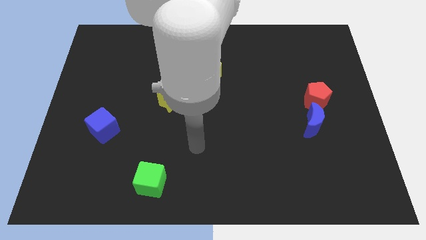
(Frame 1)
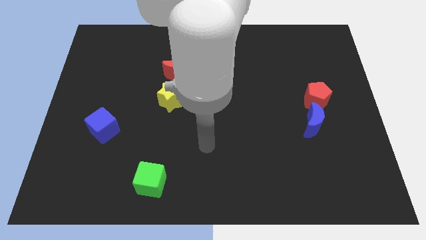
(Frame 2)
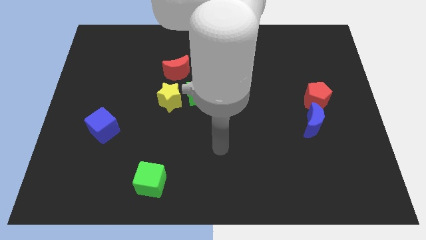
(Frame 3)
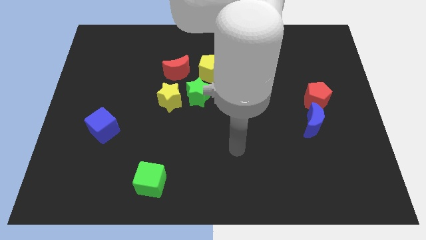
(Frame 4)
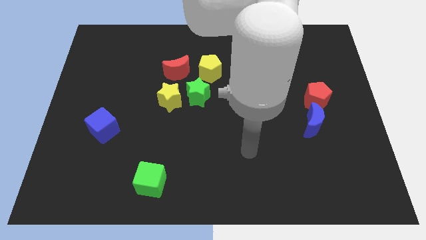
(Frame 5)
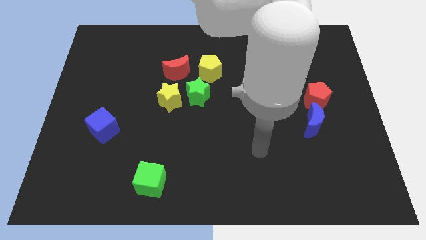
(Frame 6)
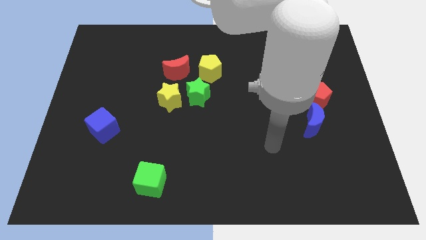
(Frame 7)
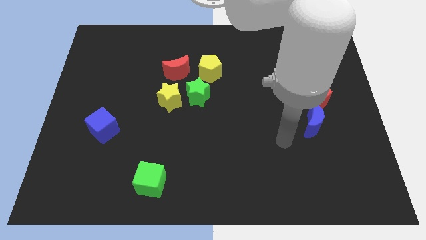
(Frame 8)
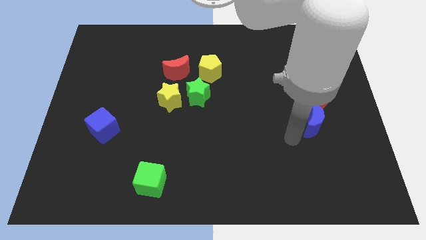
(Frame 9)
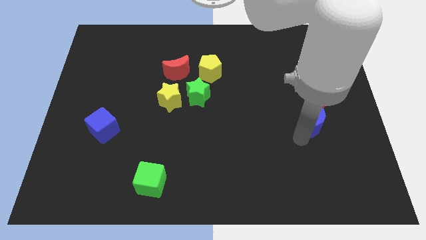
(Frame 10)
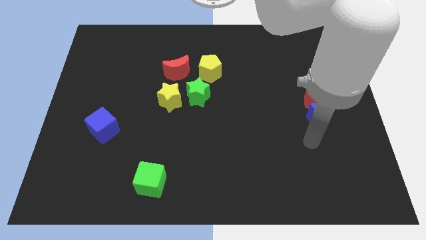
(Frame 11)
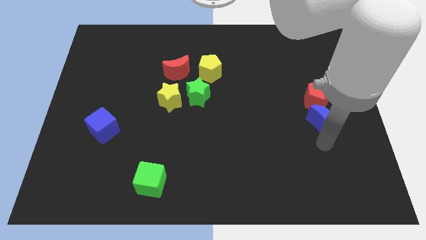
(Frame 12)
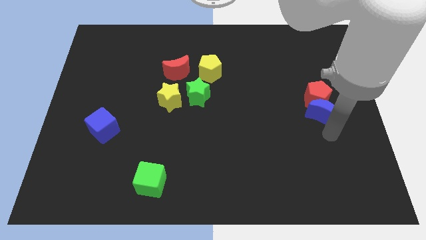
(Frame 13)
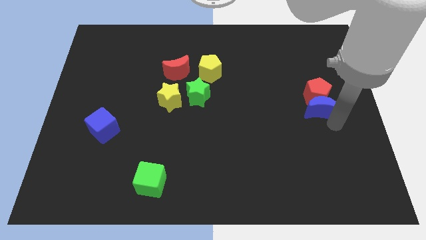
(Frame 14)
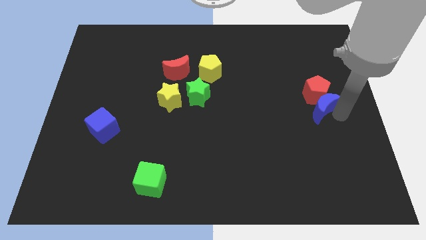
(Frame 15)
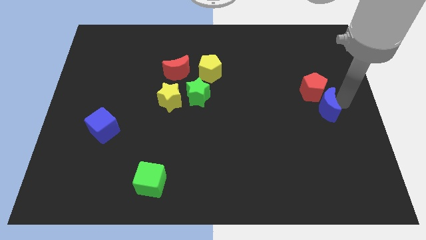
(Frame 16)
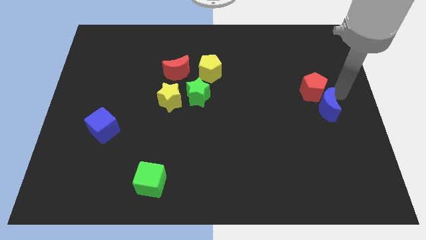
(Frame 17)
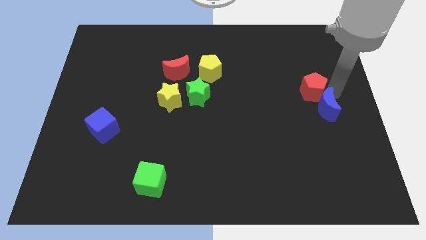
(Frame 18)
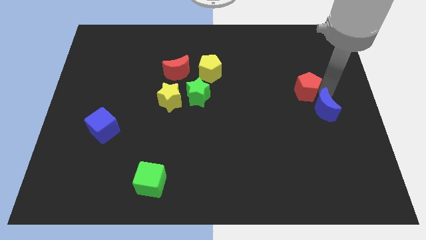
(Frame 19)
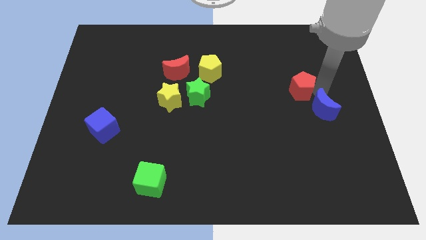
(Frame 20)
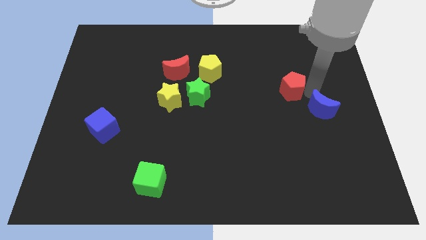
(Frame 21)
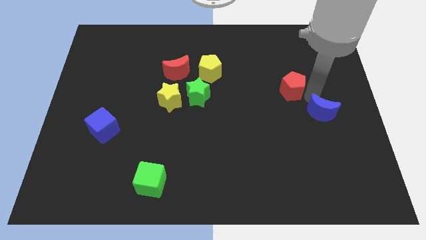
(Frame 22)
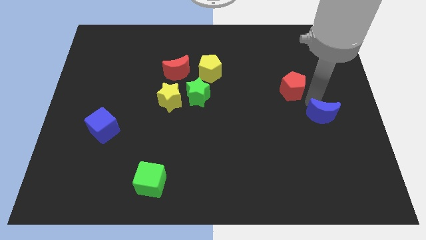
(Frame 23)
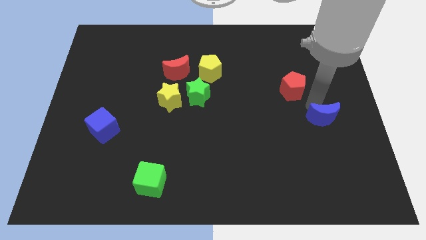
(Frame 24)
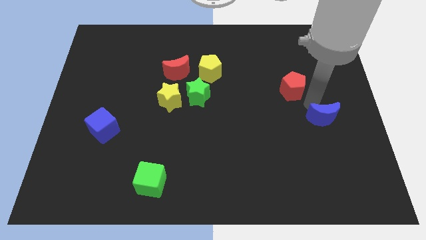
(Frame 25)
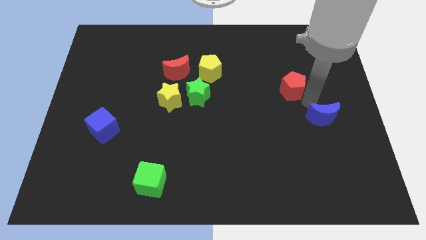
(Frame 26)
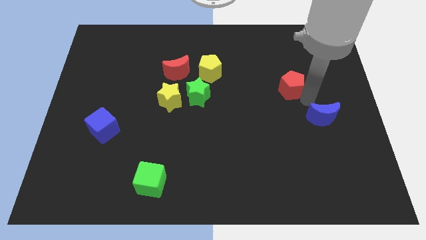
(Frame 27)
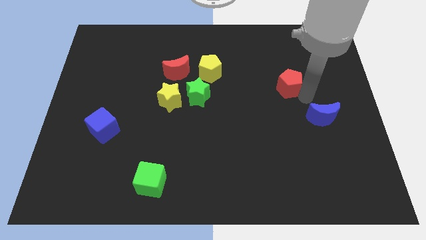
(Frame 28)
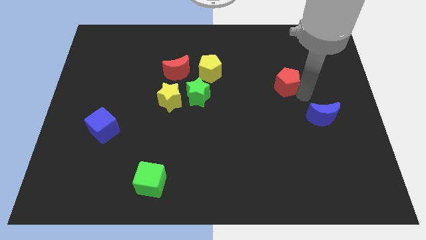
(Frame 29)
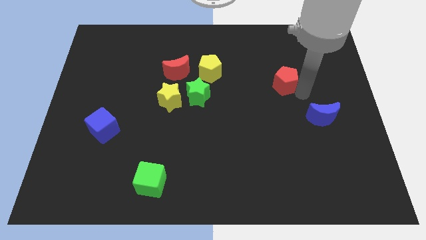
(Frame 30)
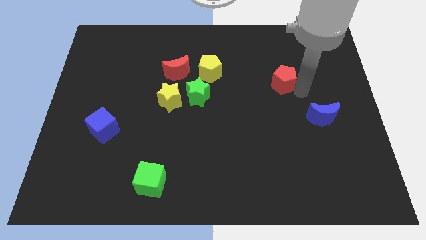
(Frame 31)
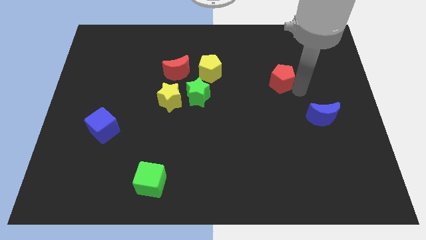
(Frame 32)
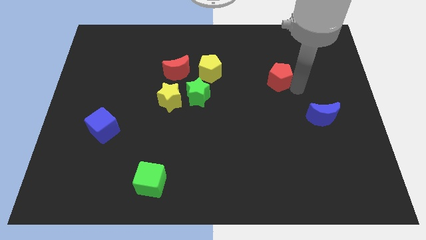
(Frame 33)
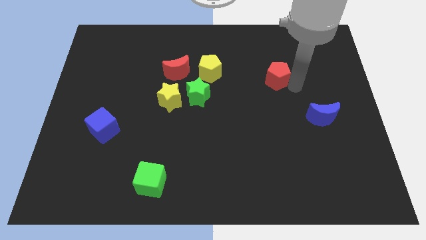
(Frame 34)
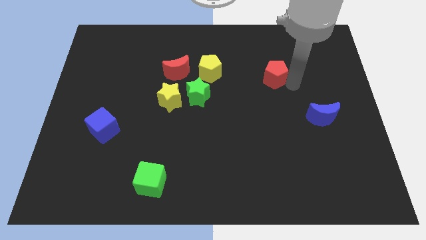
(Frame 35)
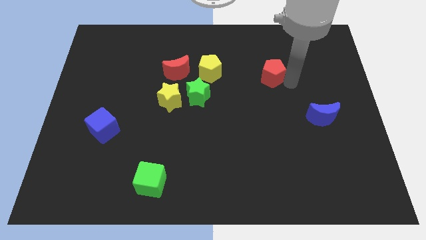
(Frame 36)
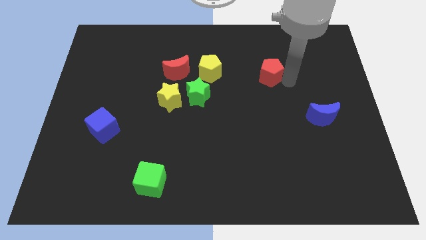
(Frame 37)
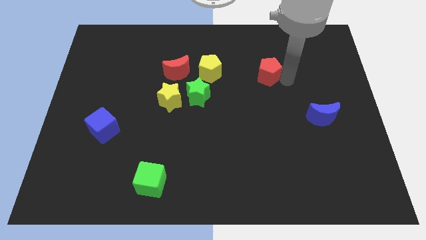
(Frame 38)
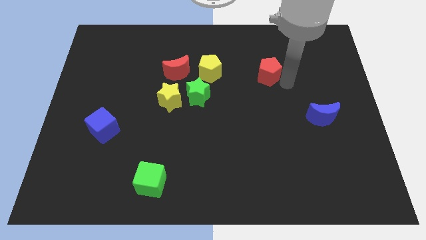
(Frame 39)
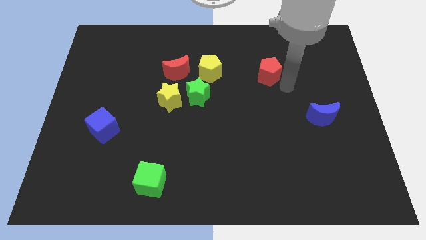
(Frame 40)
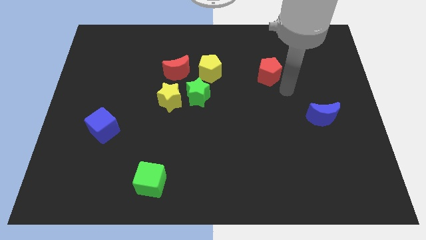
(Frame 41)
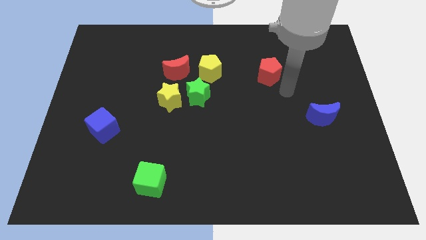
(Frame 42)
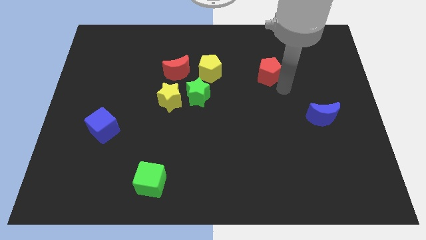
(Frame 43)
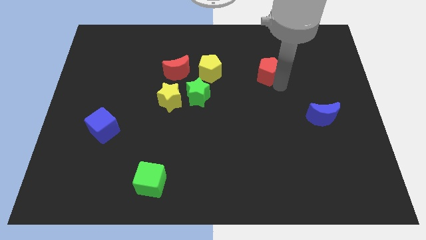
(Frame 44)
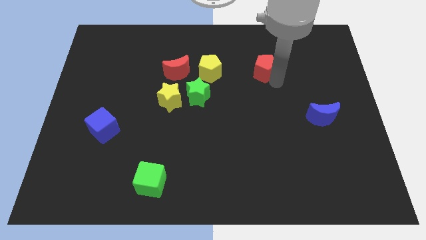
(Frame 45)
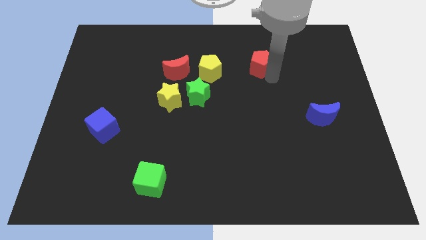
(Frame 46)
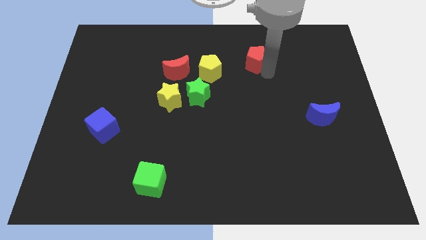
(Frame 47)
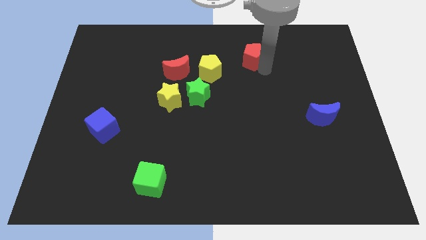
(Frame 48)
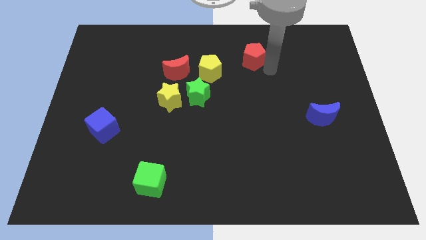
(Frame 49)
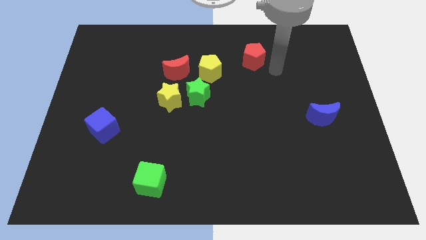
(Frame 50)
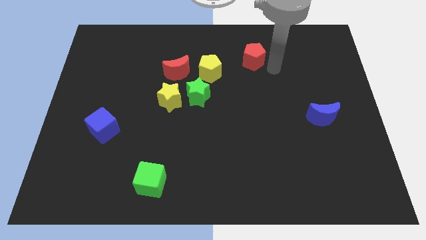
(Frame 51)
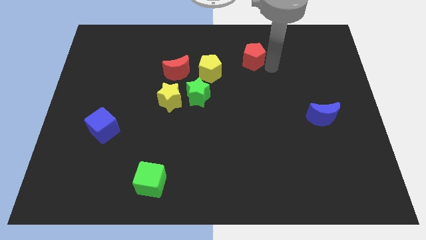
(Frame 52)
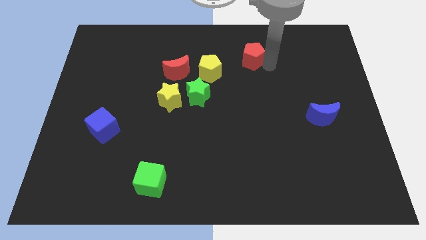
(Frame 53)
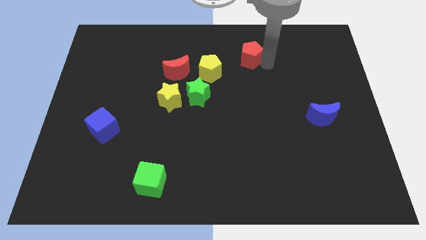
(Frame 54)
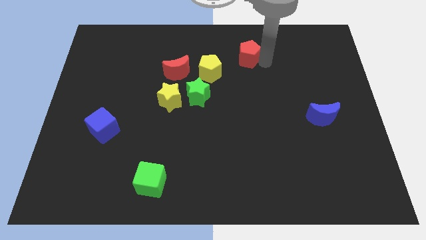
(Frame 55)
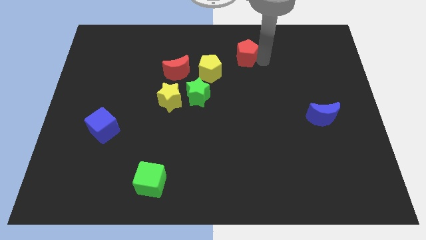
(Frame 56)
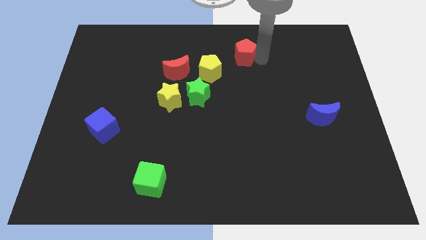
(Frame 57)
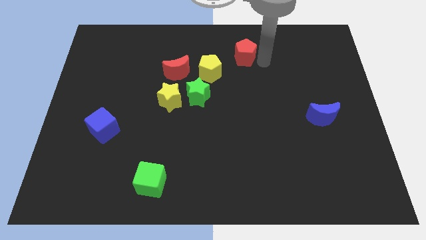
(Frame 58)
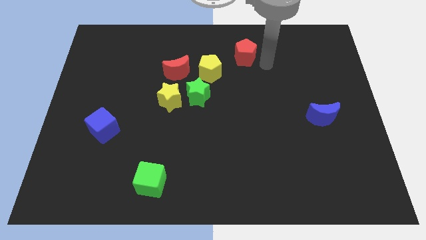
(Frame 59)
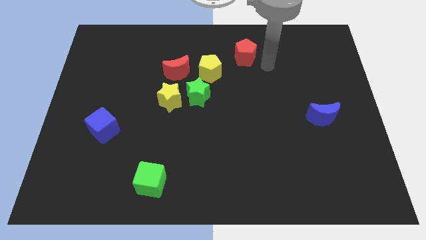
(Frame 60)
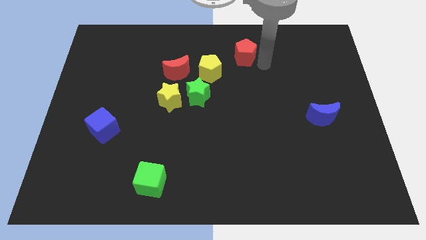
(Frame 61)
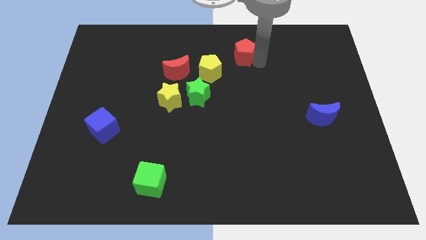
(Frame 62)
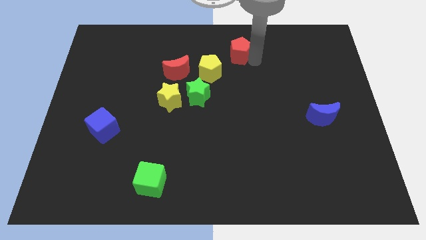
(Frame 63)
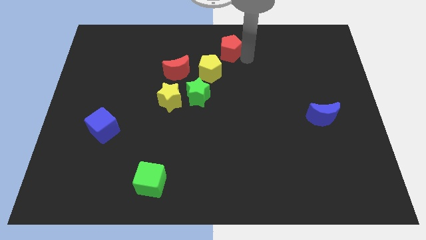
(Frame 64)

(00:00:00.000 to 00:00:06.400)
put the red pentagon to the top
